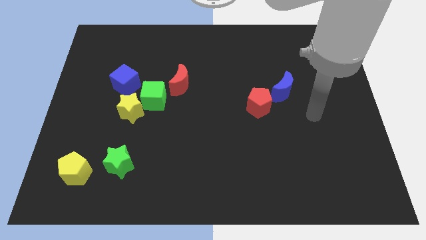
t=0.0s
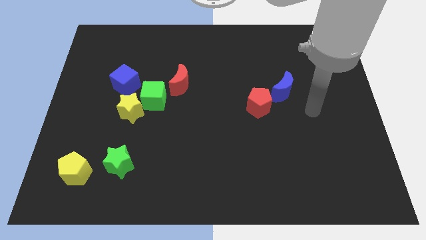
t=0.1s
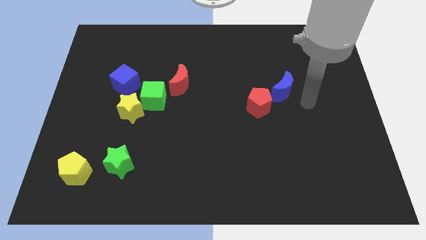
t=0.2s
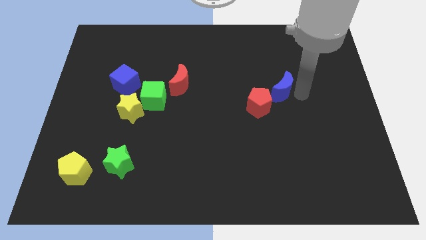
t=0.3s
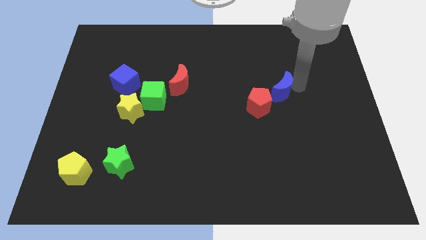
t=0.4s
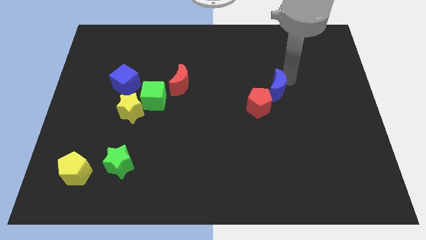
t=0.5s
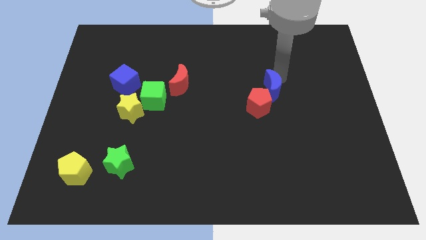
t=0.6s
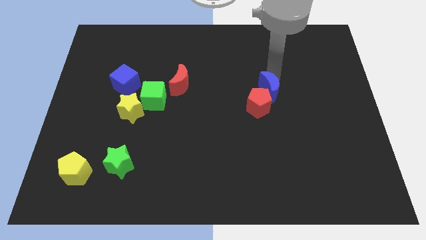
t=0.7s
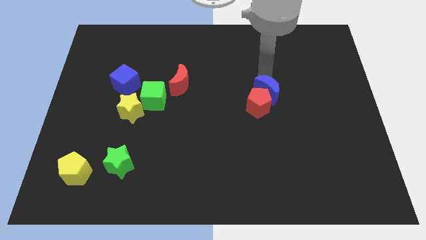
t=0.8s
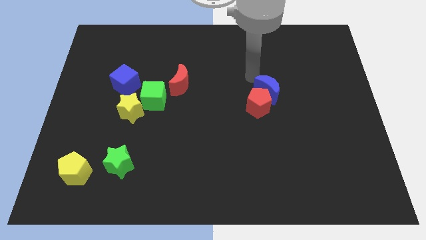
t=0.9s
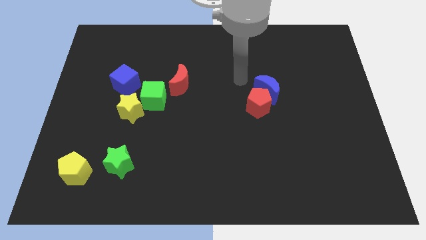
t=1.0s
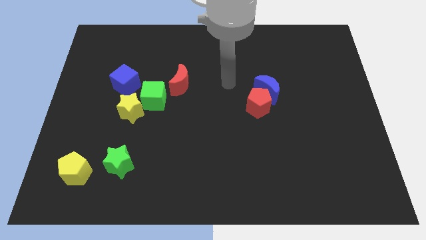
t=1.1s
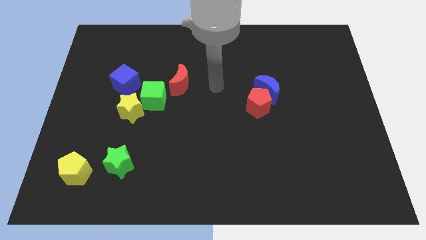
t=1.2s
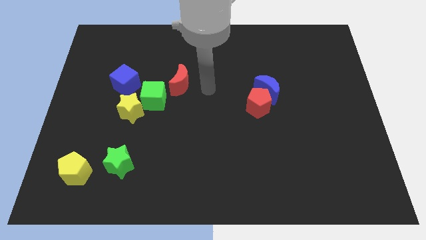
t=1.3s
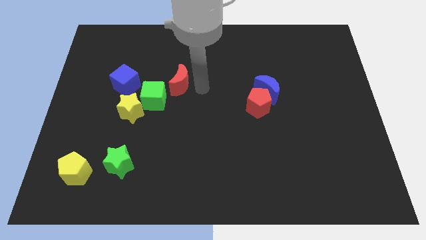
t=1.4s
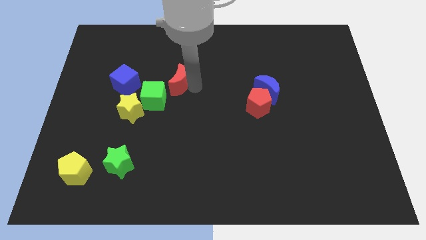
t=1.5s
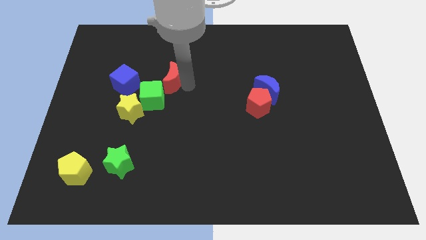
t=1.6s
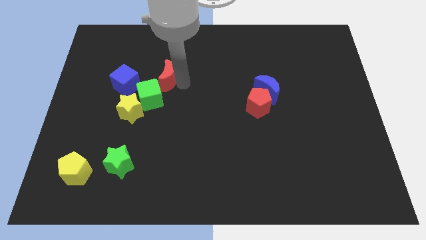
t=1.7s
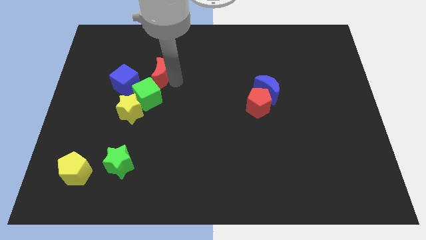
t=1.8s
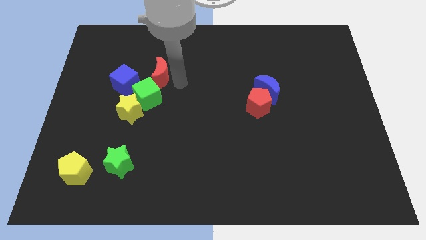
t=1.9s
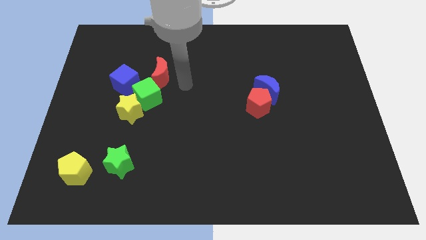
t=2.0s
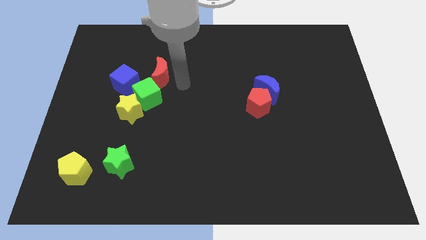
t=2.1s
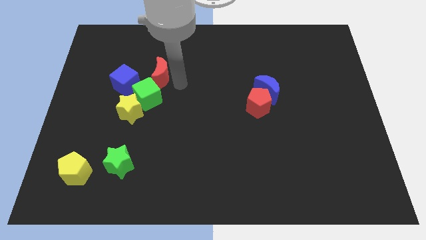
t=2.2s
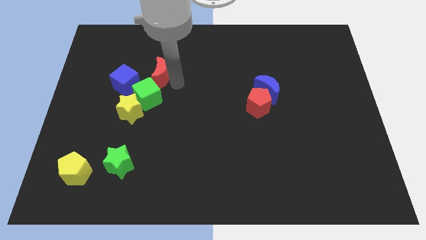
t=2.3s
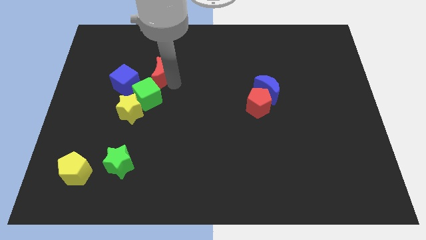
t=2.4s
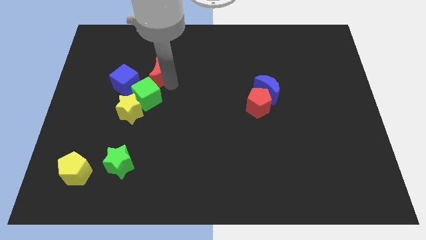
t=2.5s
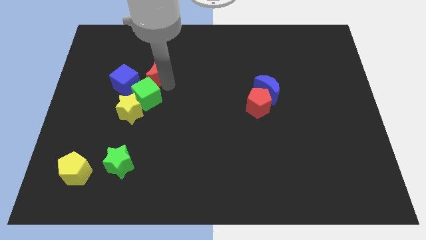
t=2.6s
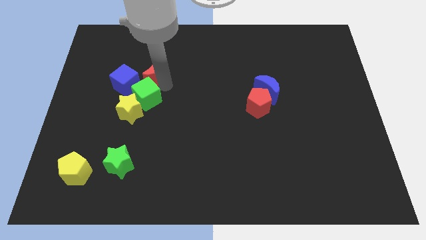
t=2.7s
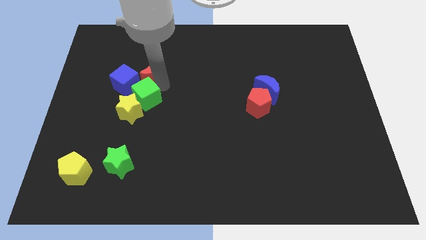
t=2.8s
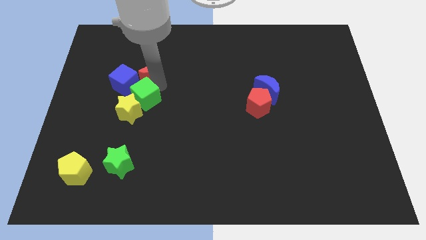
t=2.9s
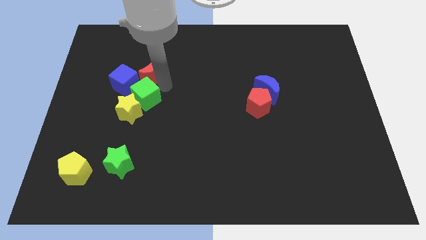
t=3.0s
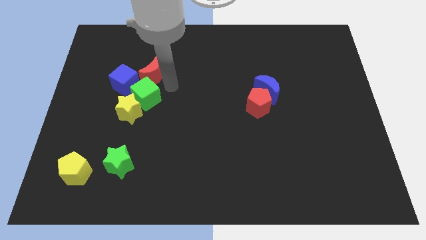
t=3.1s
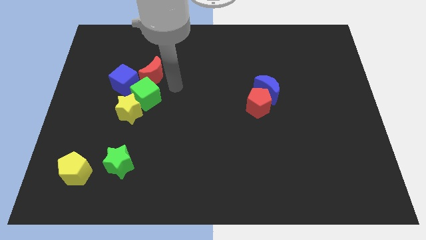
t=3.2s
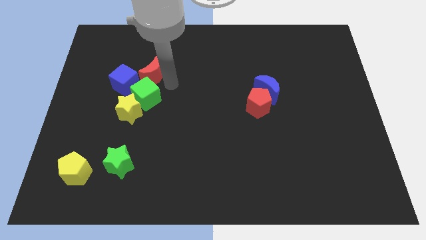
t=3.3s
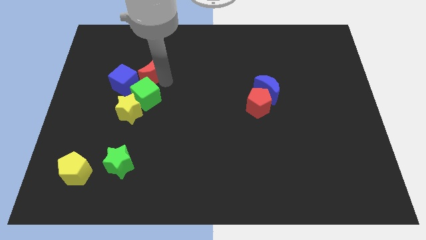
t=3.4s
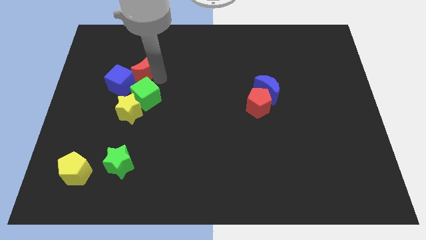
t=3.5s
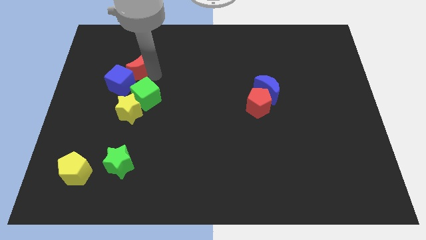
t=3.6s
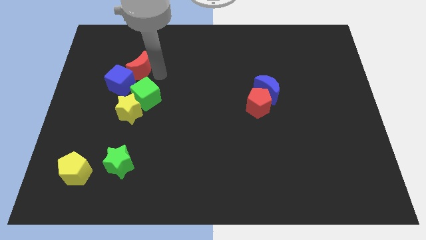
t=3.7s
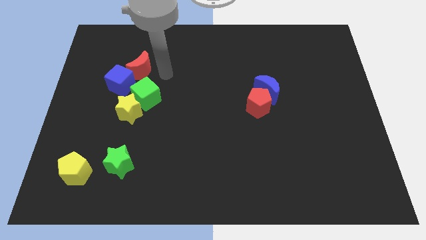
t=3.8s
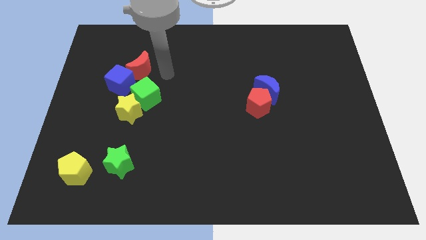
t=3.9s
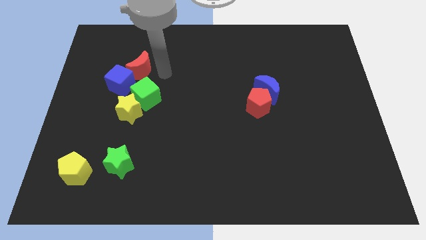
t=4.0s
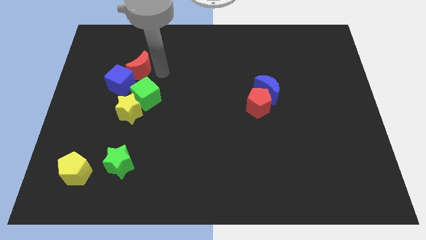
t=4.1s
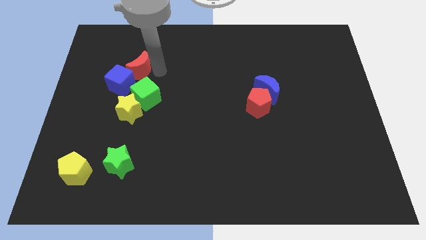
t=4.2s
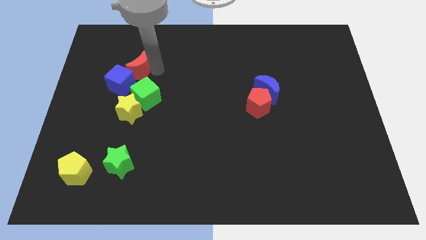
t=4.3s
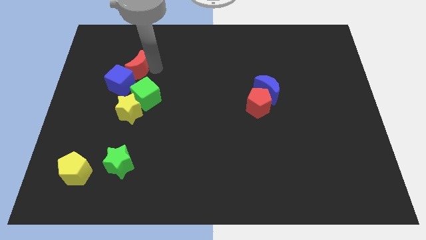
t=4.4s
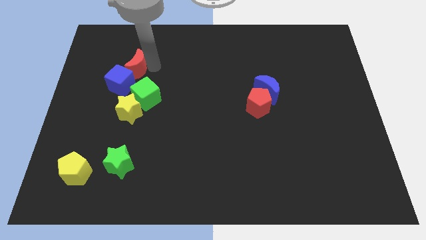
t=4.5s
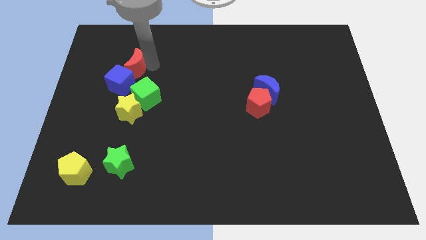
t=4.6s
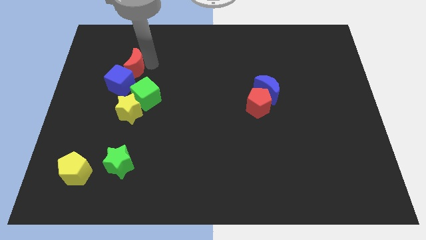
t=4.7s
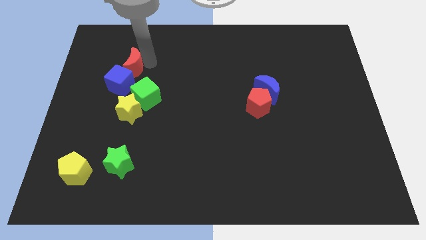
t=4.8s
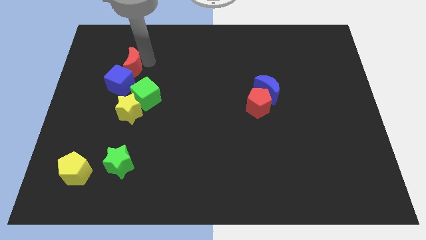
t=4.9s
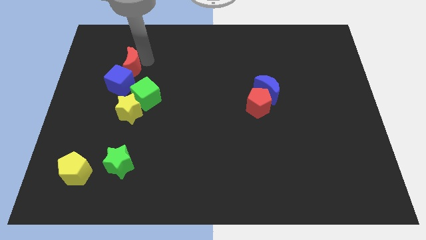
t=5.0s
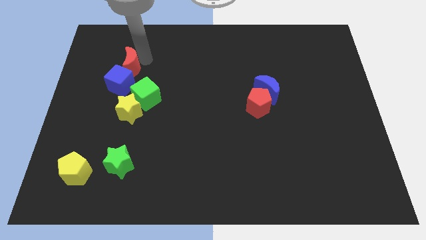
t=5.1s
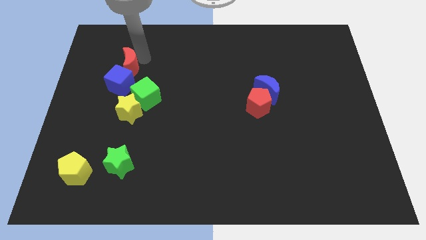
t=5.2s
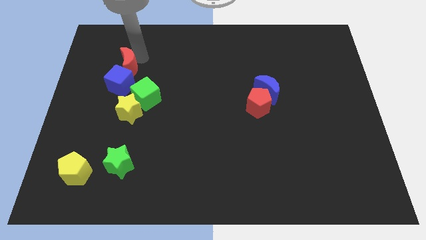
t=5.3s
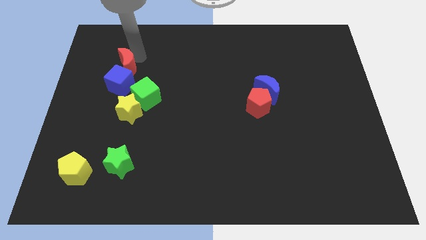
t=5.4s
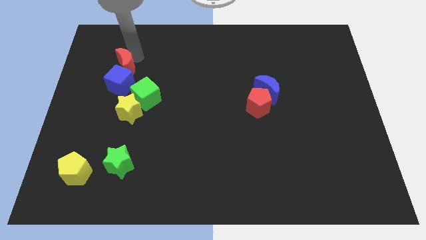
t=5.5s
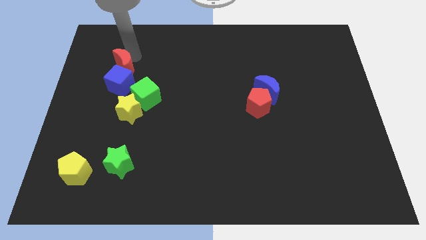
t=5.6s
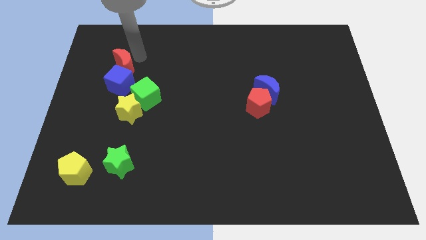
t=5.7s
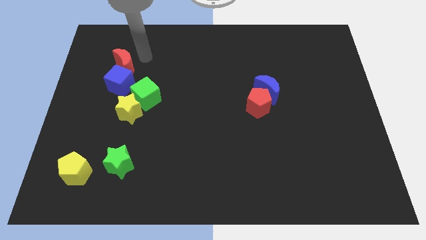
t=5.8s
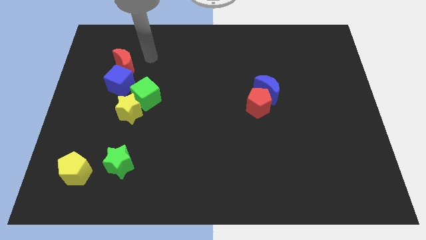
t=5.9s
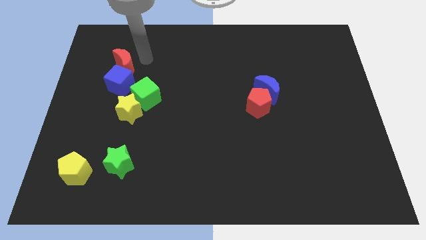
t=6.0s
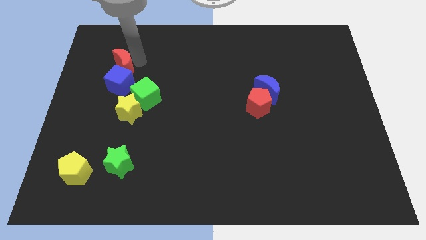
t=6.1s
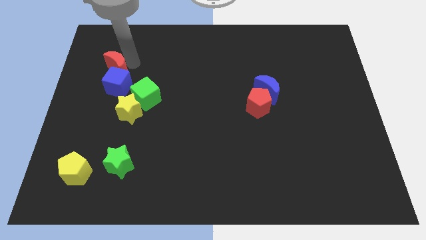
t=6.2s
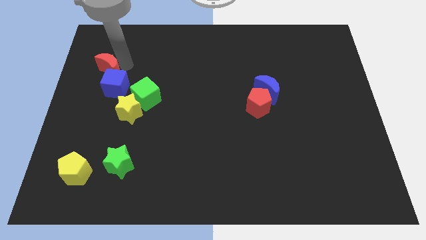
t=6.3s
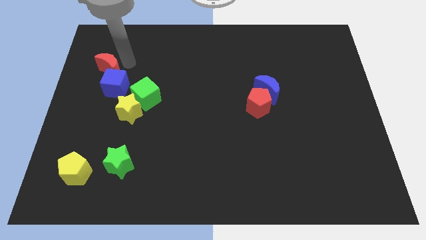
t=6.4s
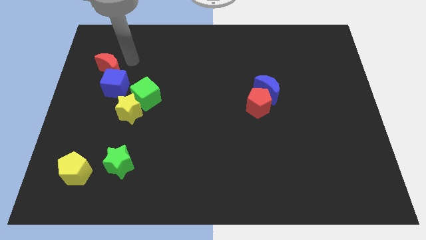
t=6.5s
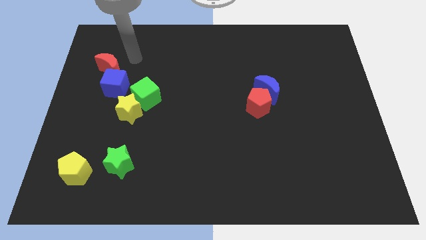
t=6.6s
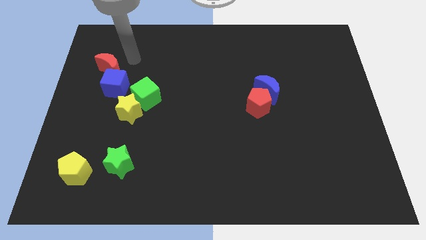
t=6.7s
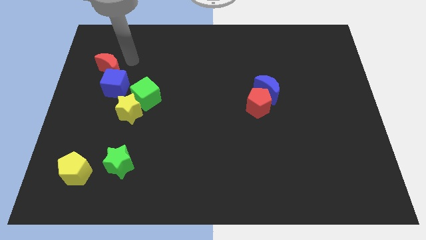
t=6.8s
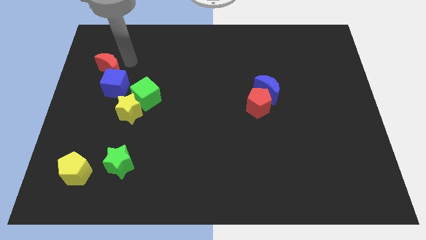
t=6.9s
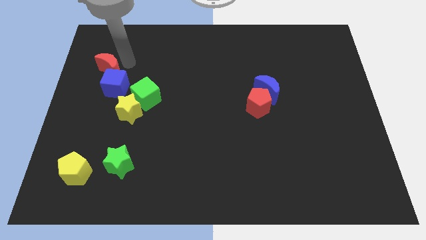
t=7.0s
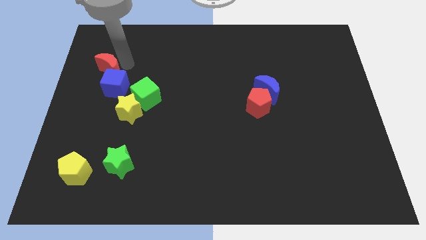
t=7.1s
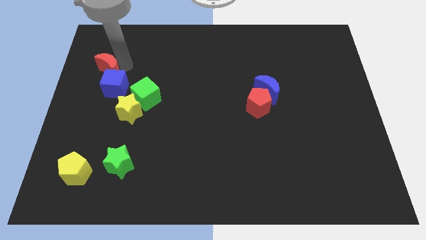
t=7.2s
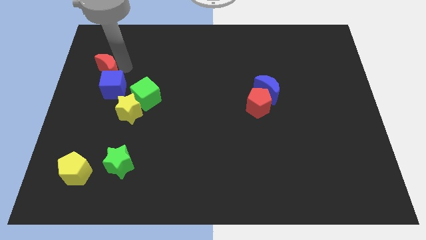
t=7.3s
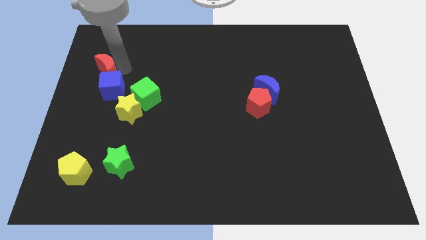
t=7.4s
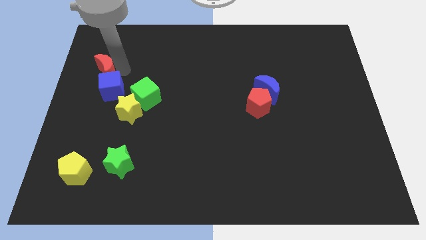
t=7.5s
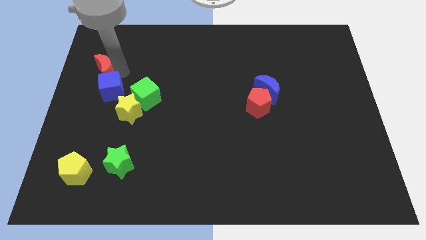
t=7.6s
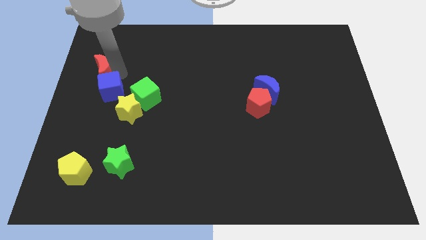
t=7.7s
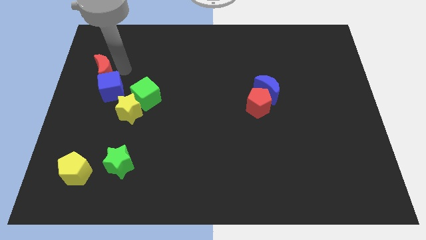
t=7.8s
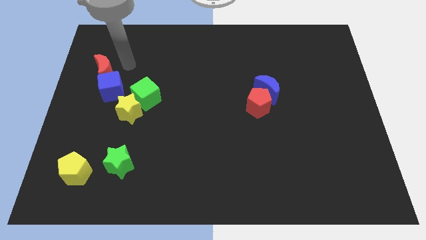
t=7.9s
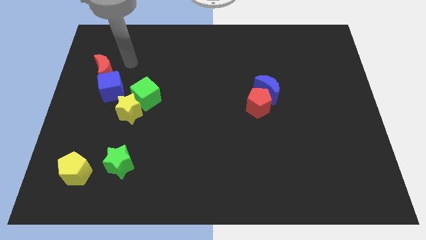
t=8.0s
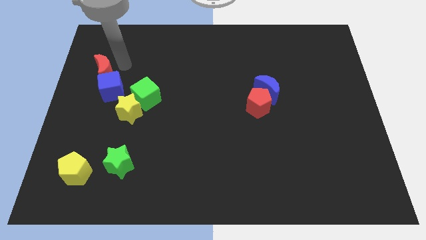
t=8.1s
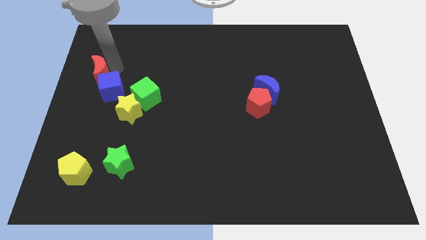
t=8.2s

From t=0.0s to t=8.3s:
put the red moon to the left side of the board
